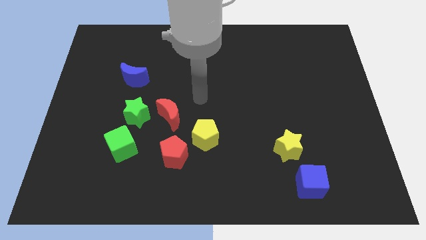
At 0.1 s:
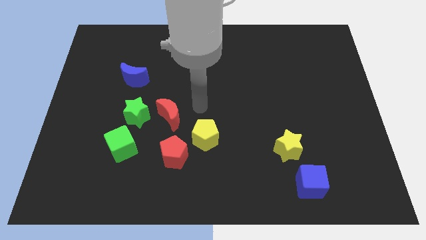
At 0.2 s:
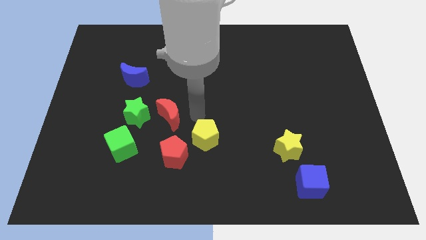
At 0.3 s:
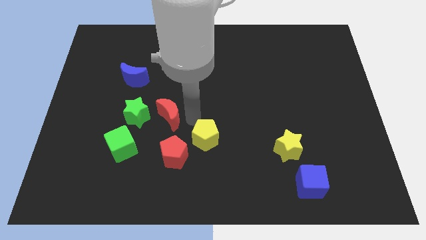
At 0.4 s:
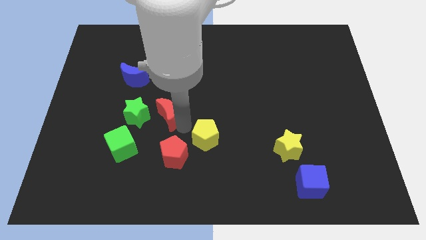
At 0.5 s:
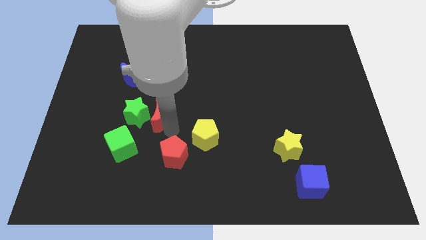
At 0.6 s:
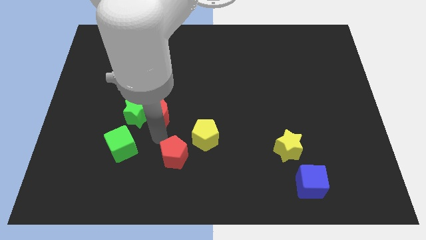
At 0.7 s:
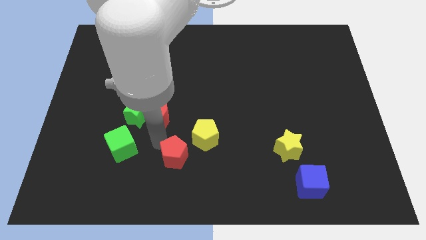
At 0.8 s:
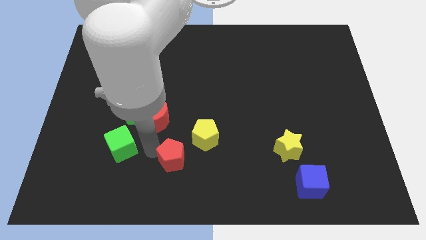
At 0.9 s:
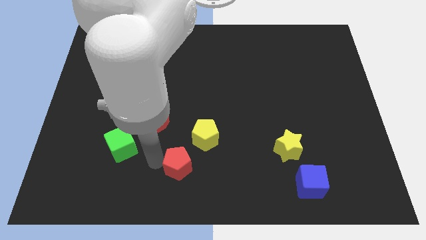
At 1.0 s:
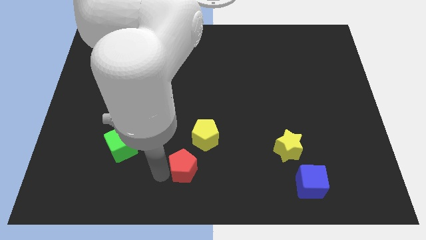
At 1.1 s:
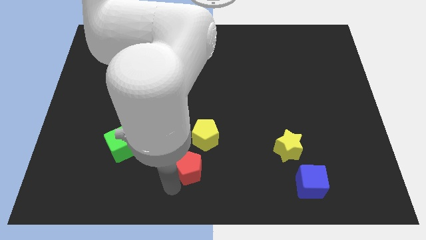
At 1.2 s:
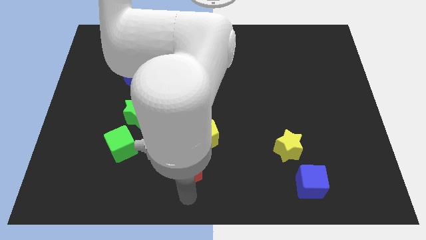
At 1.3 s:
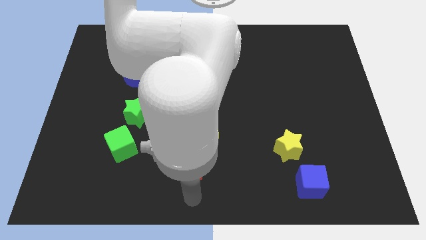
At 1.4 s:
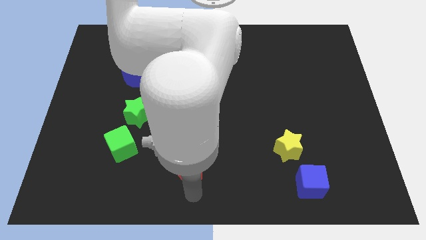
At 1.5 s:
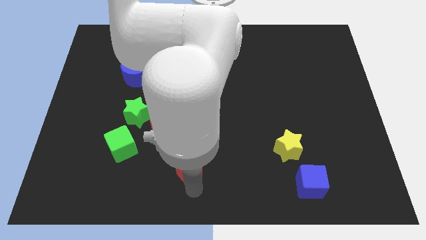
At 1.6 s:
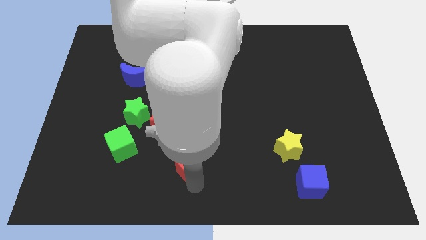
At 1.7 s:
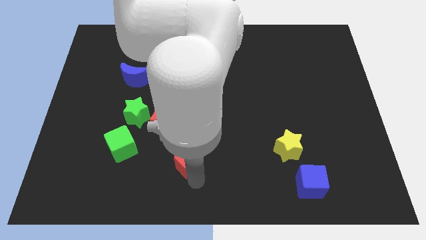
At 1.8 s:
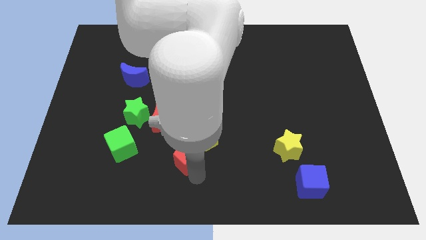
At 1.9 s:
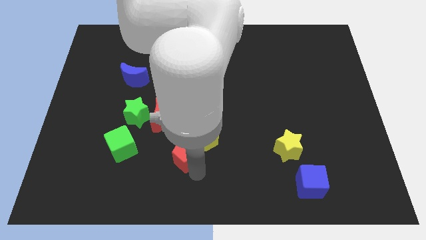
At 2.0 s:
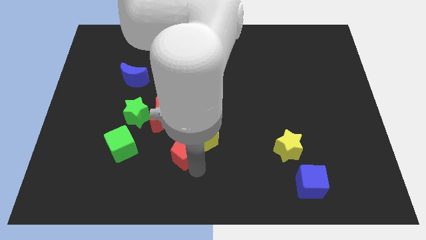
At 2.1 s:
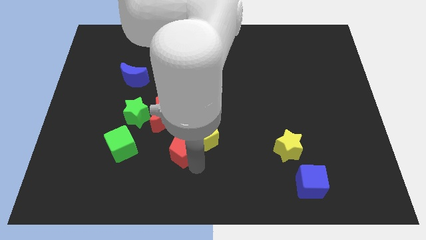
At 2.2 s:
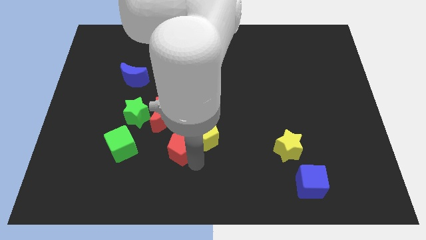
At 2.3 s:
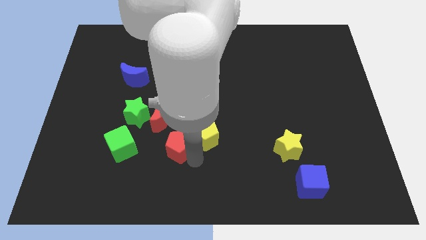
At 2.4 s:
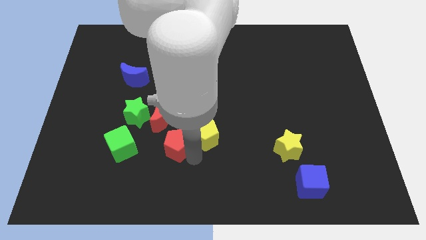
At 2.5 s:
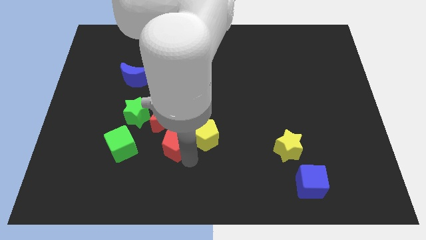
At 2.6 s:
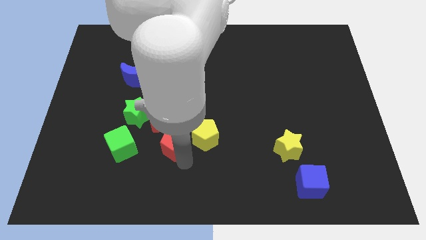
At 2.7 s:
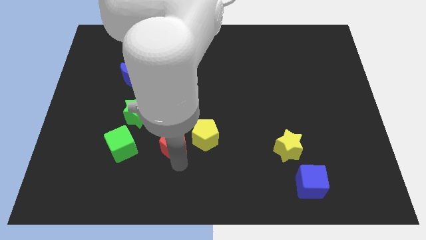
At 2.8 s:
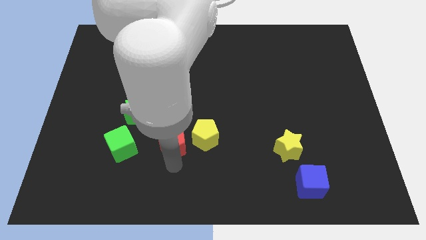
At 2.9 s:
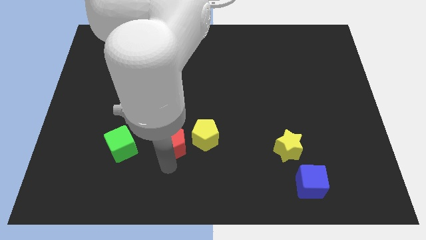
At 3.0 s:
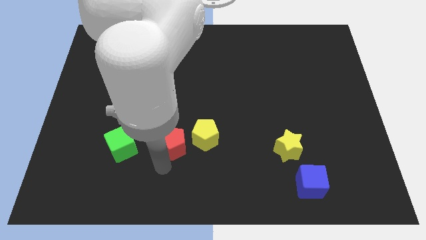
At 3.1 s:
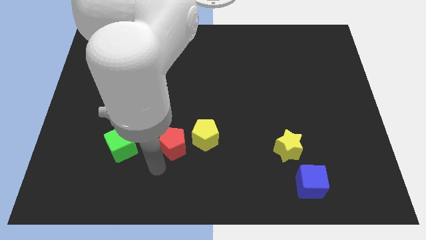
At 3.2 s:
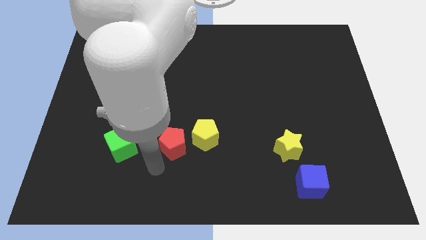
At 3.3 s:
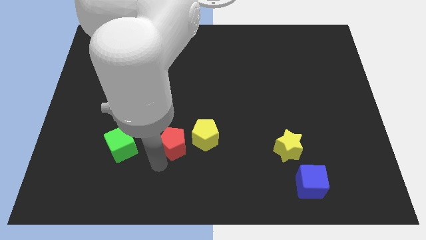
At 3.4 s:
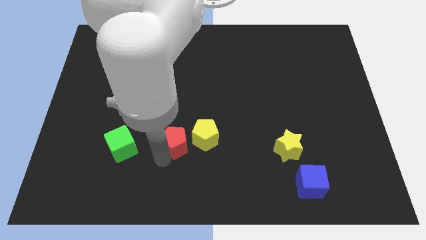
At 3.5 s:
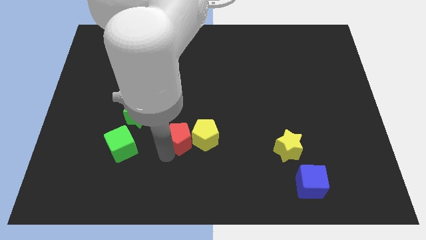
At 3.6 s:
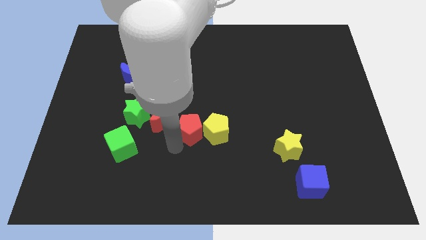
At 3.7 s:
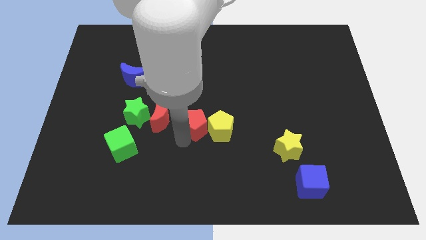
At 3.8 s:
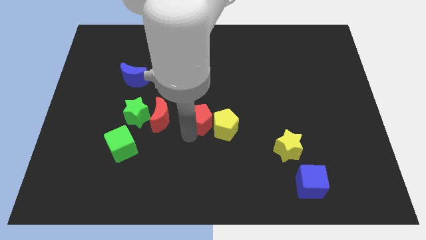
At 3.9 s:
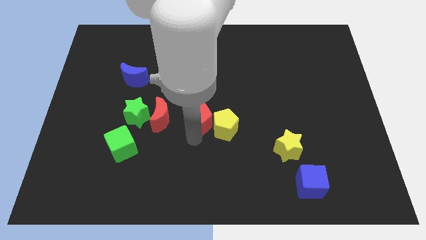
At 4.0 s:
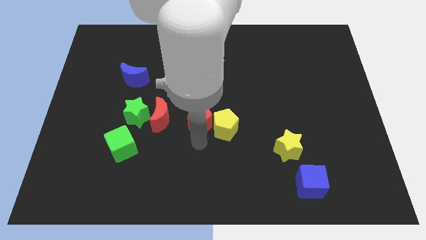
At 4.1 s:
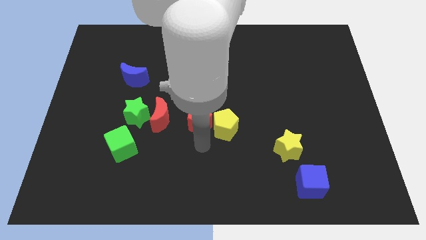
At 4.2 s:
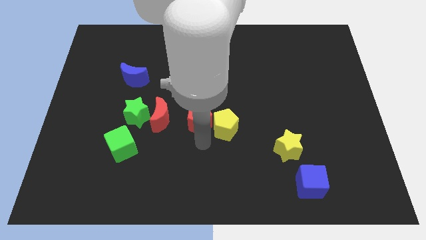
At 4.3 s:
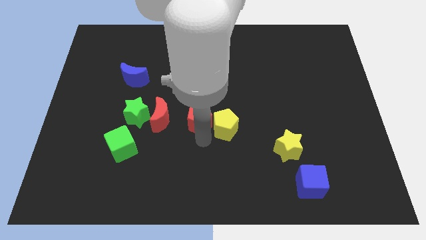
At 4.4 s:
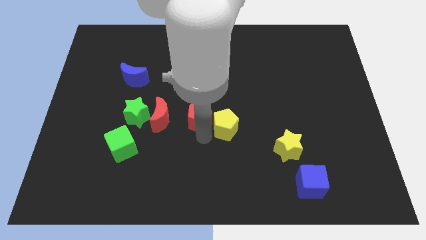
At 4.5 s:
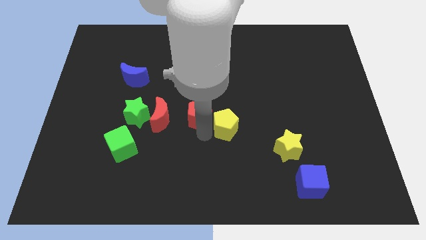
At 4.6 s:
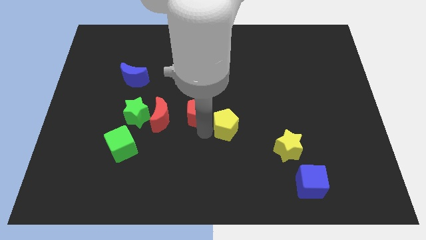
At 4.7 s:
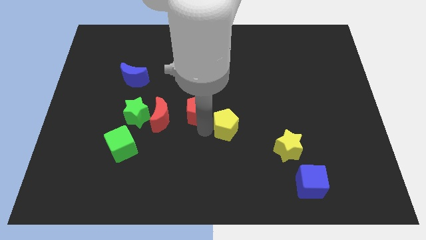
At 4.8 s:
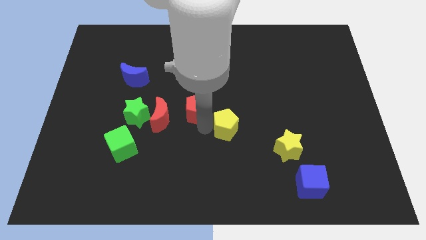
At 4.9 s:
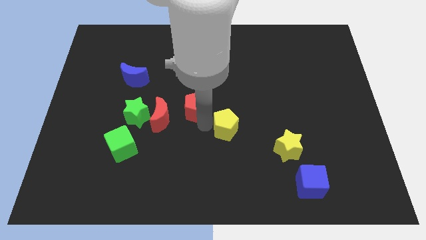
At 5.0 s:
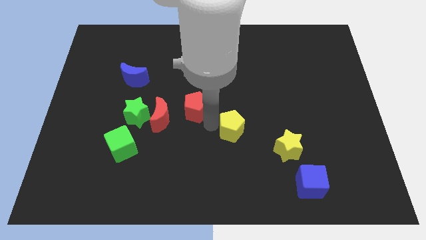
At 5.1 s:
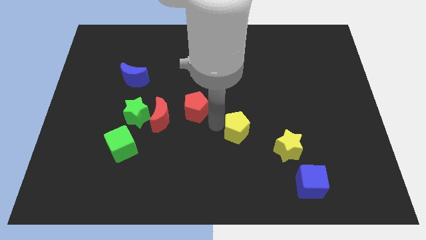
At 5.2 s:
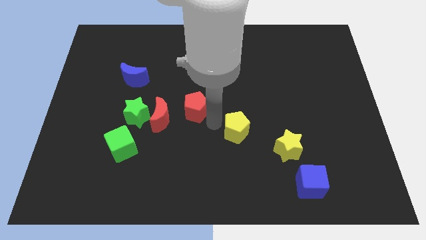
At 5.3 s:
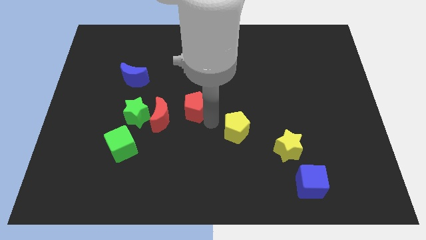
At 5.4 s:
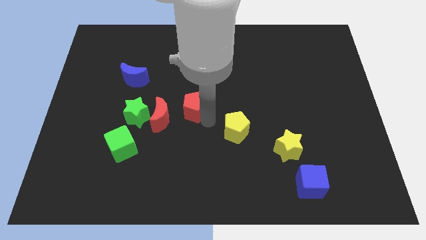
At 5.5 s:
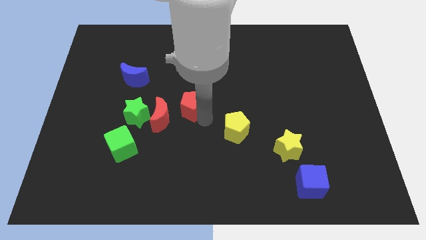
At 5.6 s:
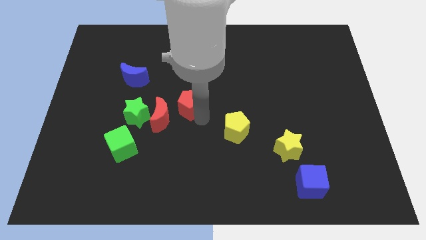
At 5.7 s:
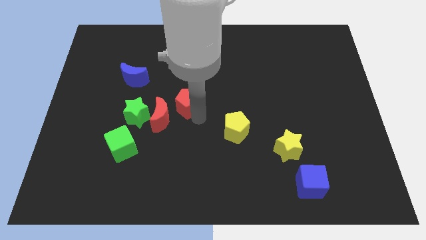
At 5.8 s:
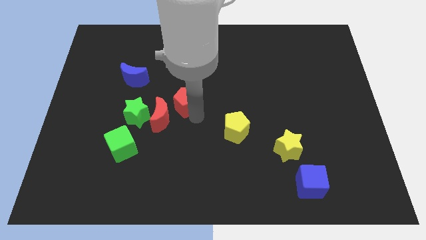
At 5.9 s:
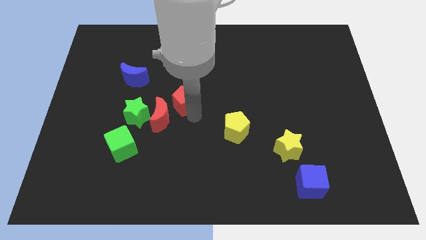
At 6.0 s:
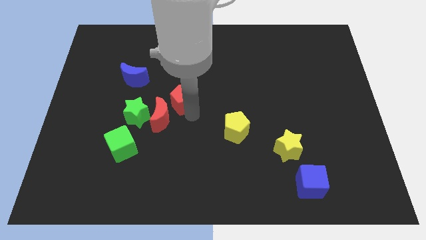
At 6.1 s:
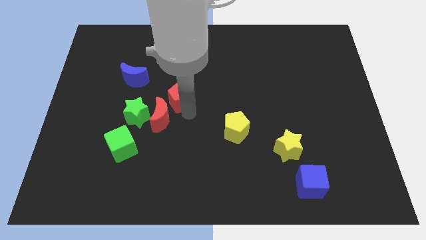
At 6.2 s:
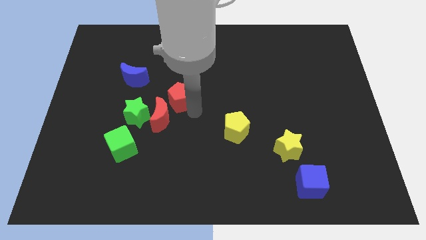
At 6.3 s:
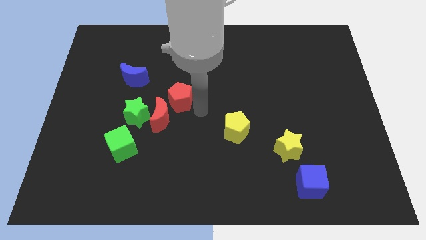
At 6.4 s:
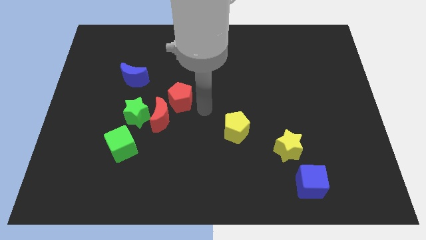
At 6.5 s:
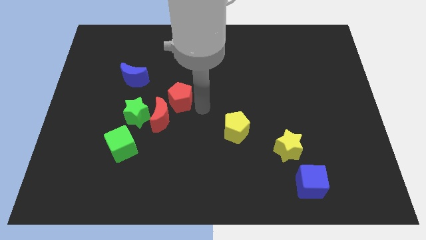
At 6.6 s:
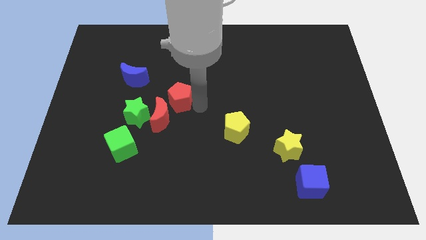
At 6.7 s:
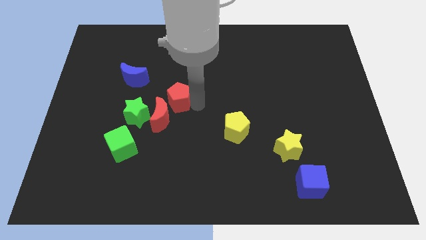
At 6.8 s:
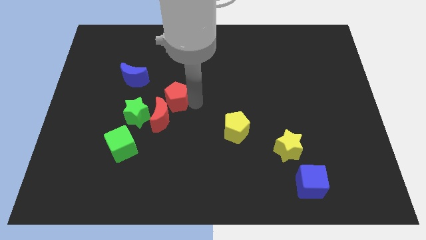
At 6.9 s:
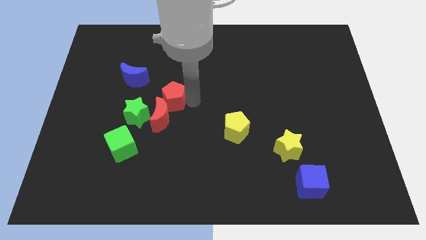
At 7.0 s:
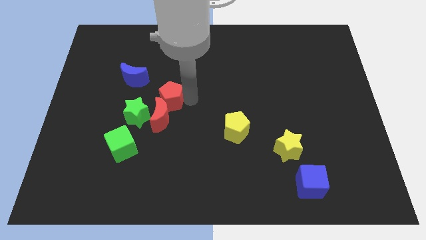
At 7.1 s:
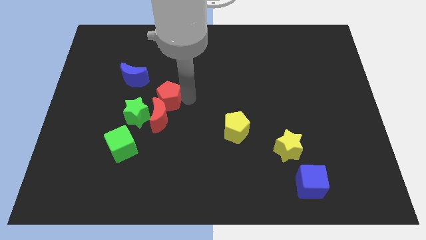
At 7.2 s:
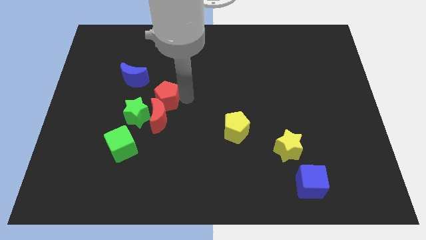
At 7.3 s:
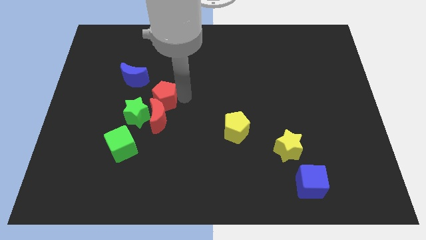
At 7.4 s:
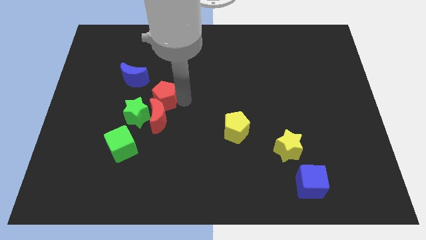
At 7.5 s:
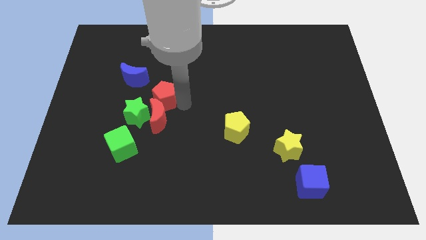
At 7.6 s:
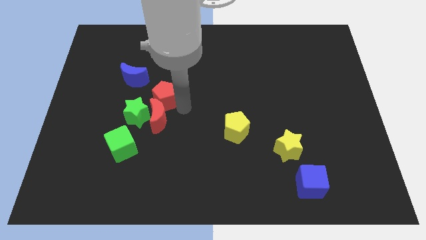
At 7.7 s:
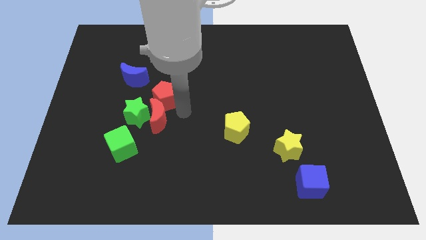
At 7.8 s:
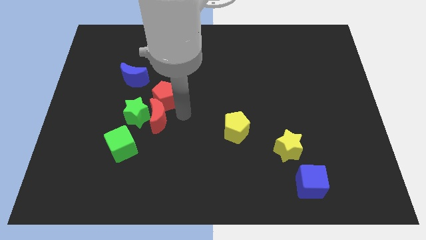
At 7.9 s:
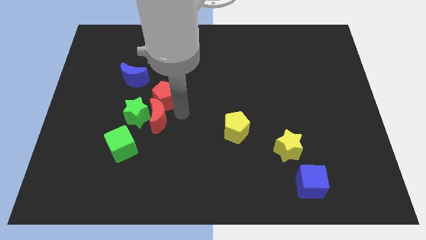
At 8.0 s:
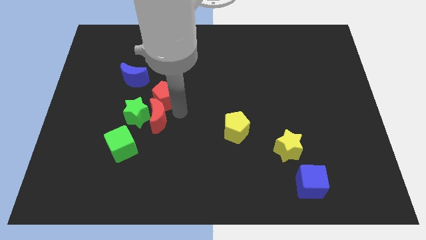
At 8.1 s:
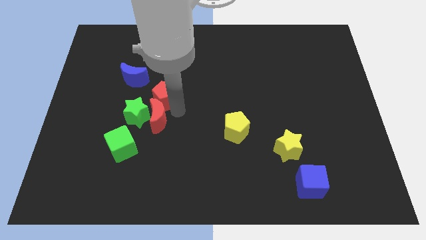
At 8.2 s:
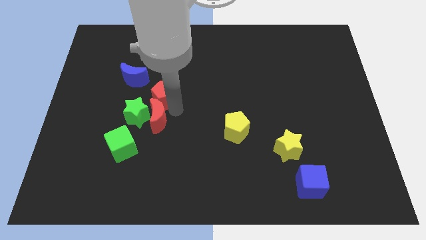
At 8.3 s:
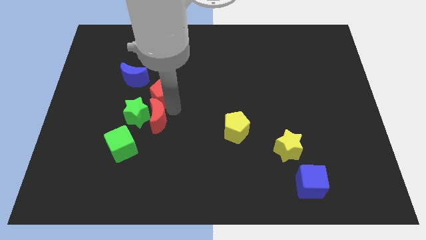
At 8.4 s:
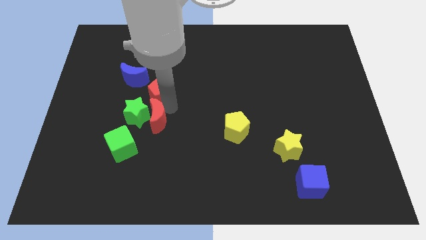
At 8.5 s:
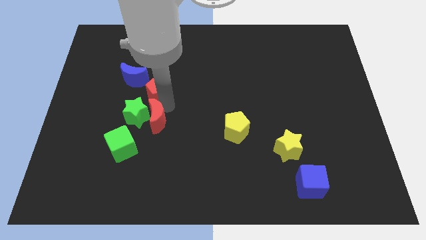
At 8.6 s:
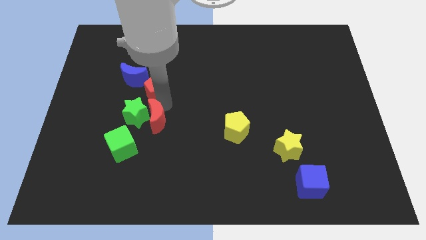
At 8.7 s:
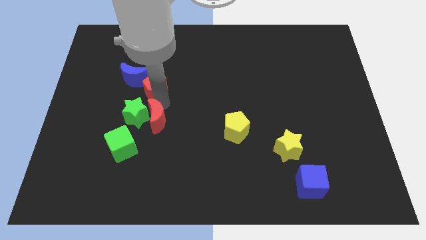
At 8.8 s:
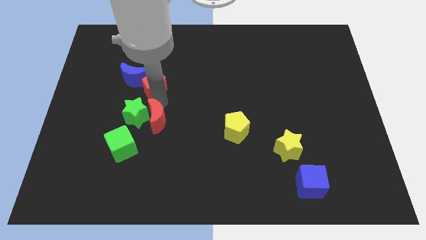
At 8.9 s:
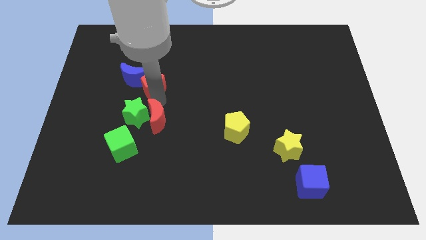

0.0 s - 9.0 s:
slide the red pentagon to the blue moon
